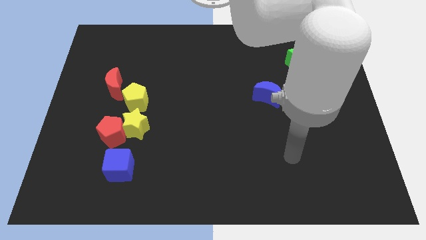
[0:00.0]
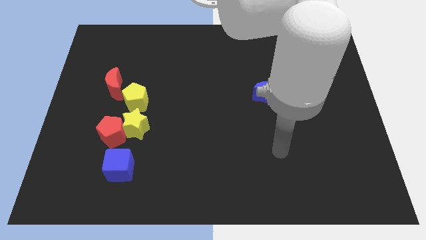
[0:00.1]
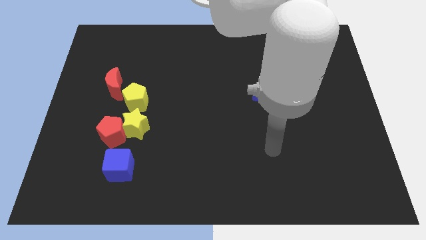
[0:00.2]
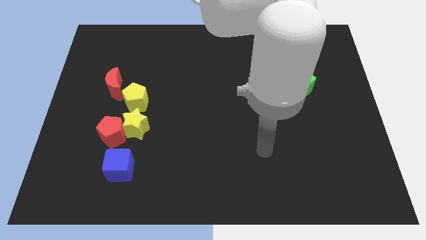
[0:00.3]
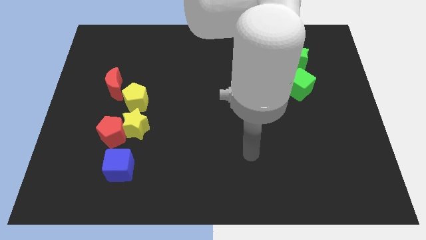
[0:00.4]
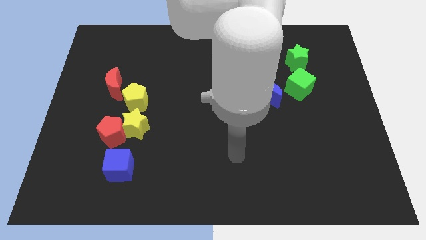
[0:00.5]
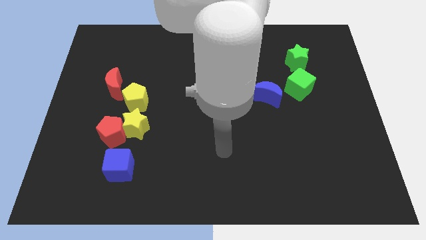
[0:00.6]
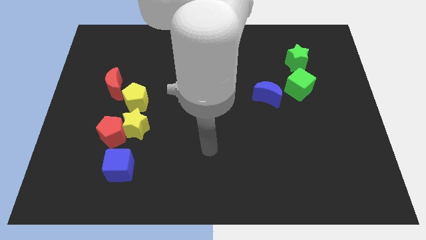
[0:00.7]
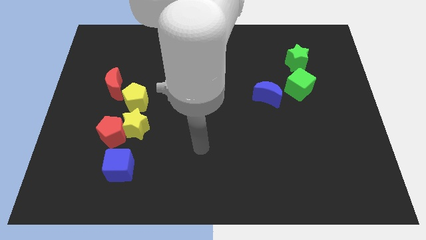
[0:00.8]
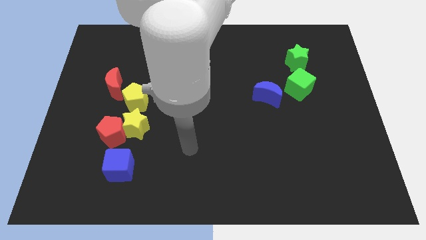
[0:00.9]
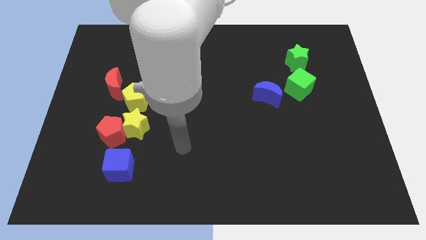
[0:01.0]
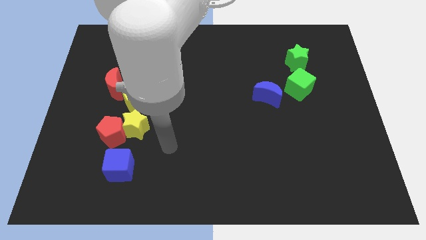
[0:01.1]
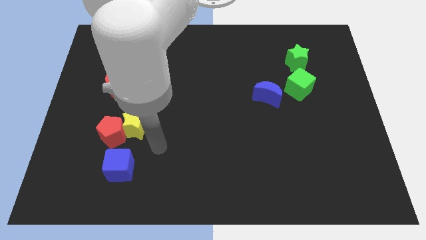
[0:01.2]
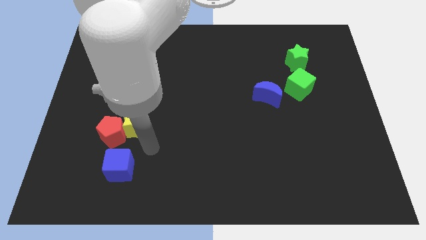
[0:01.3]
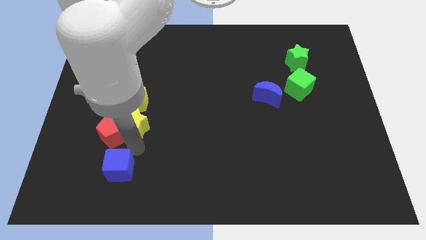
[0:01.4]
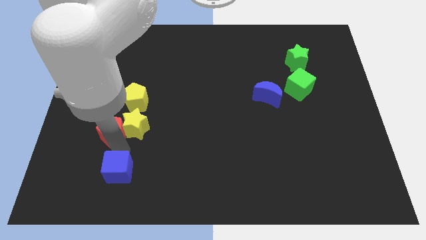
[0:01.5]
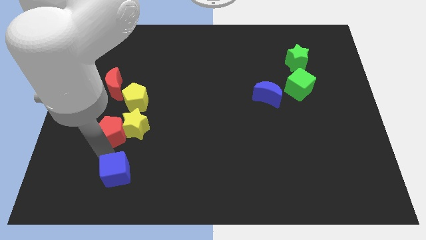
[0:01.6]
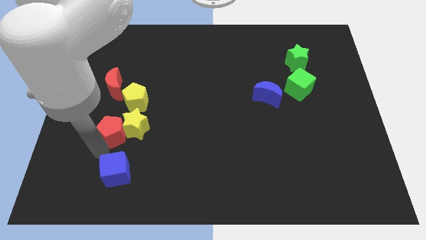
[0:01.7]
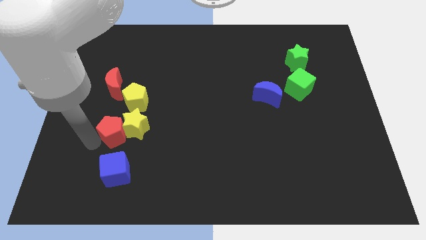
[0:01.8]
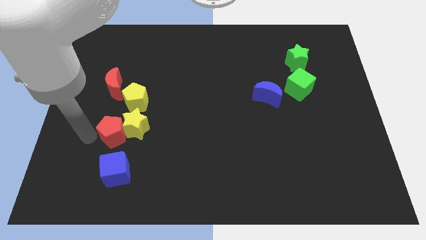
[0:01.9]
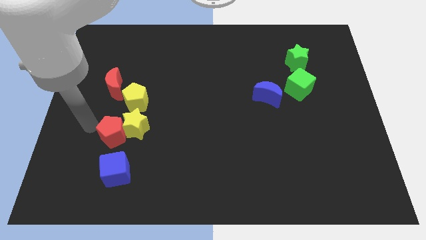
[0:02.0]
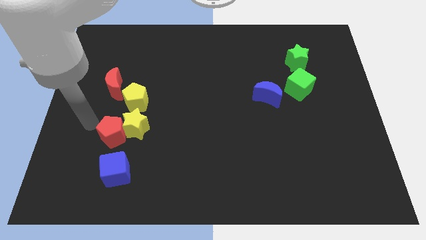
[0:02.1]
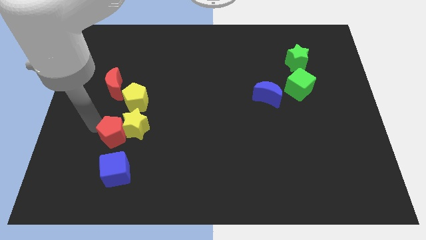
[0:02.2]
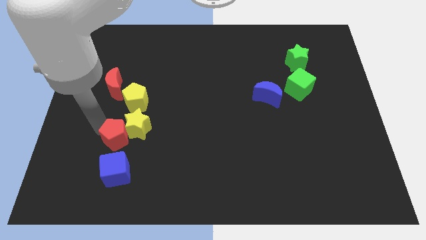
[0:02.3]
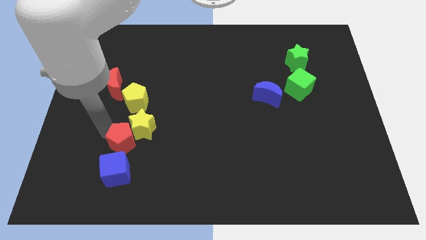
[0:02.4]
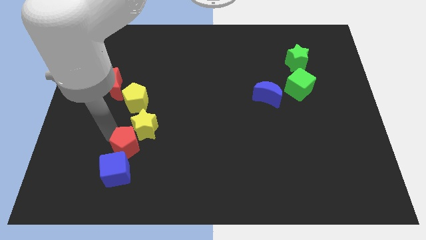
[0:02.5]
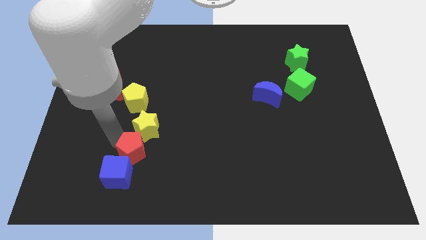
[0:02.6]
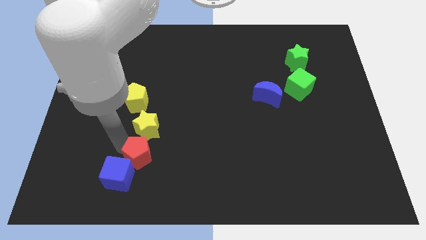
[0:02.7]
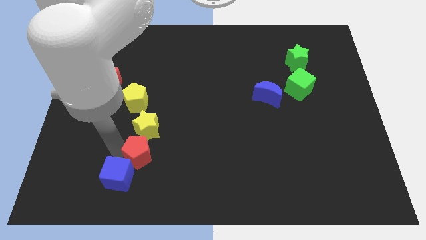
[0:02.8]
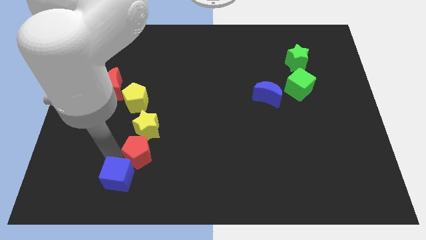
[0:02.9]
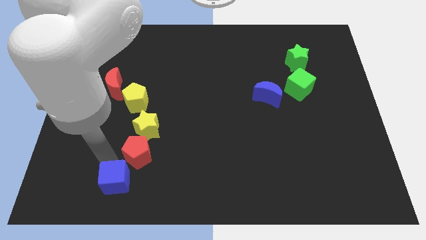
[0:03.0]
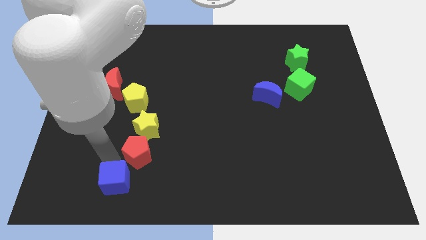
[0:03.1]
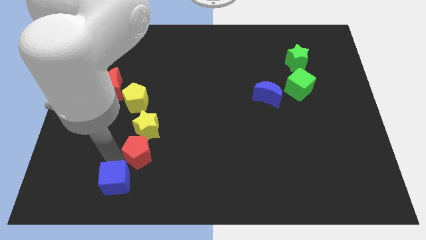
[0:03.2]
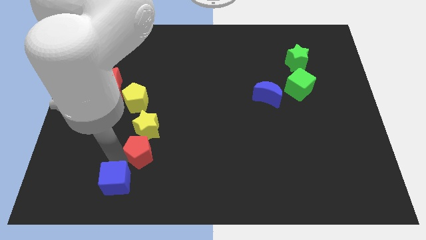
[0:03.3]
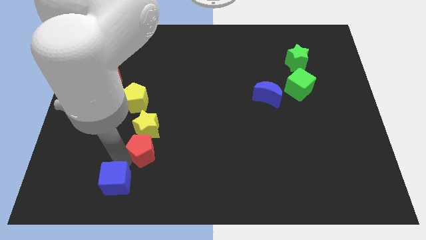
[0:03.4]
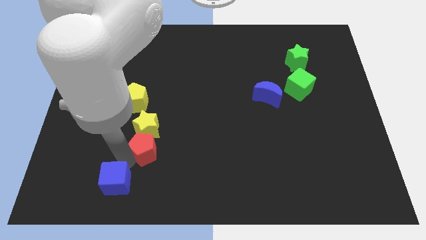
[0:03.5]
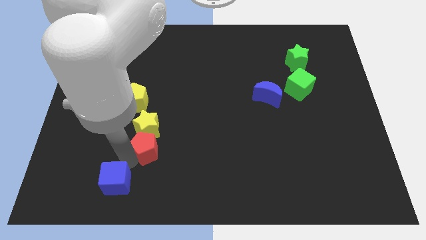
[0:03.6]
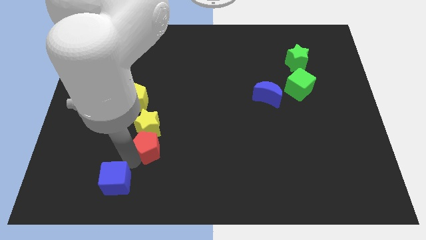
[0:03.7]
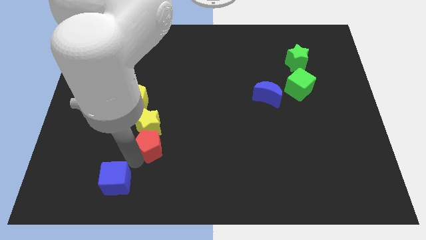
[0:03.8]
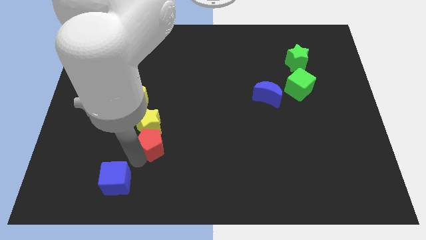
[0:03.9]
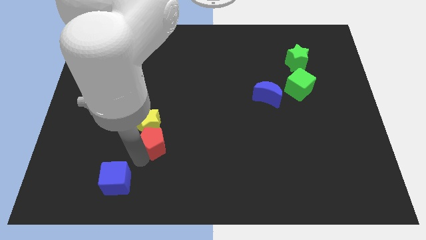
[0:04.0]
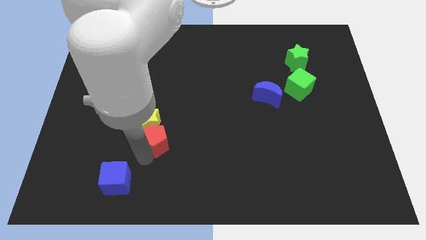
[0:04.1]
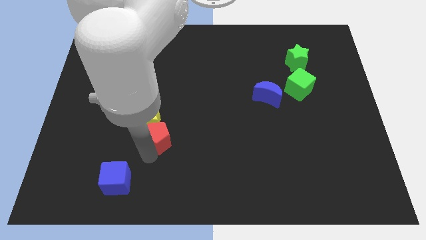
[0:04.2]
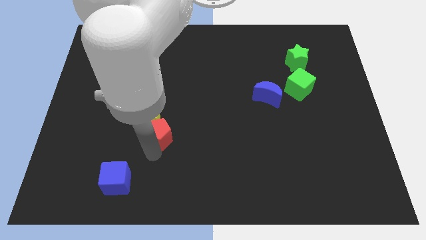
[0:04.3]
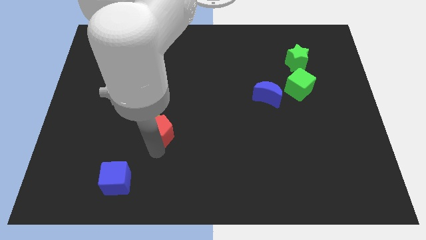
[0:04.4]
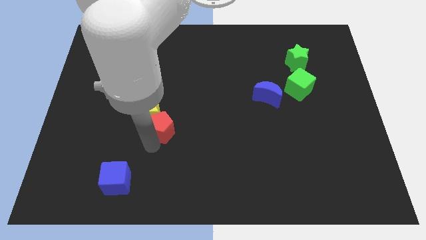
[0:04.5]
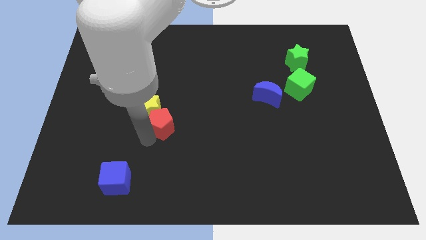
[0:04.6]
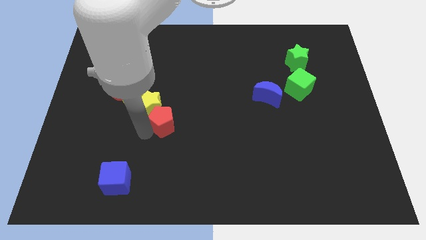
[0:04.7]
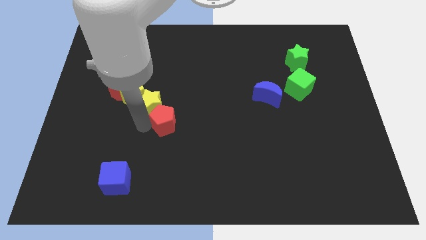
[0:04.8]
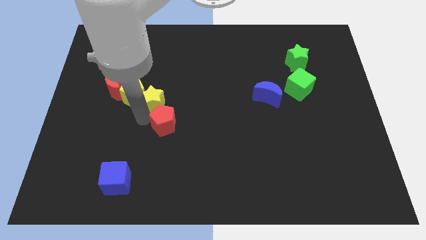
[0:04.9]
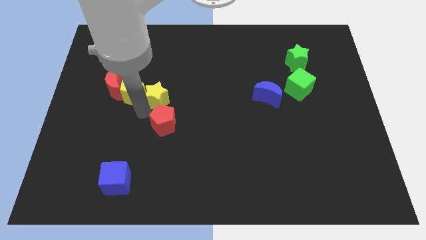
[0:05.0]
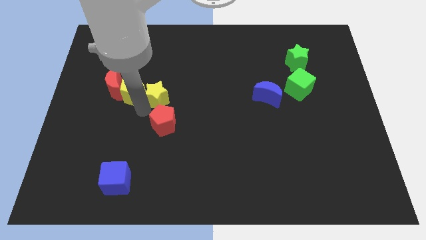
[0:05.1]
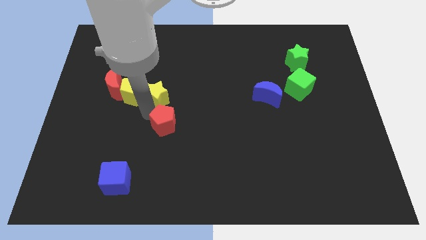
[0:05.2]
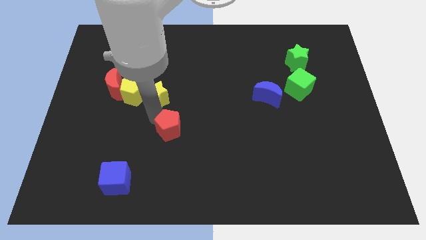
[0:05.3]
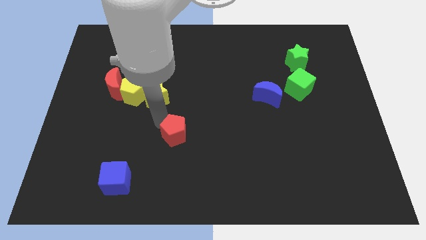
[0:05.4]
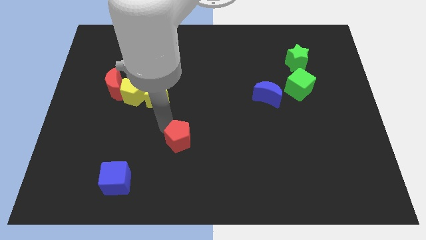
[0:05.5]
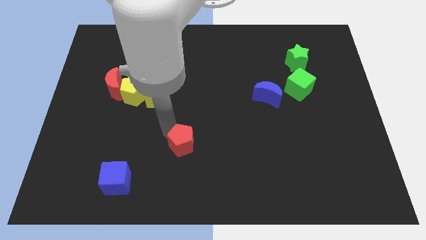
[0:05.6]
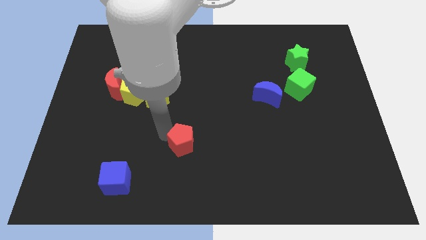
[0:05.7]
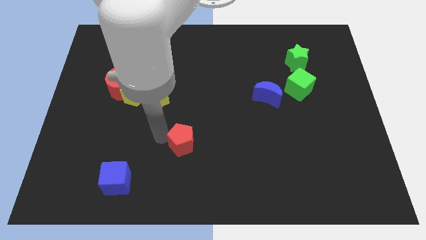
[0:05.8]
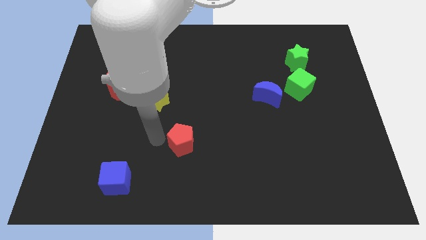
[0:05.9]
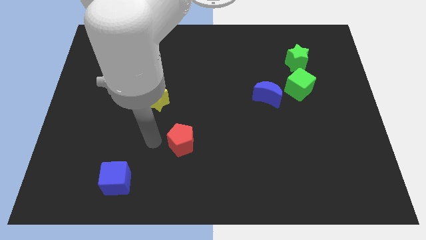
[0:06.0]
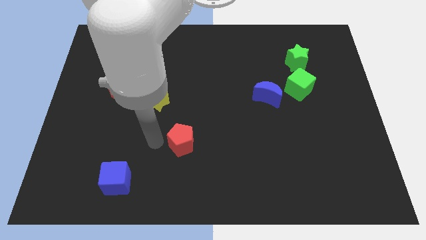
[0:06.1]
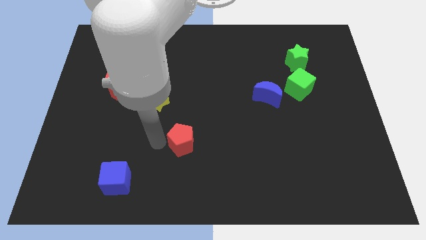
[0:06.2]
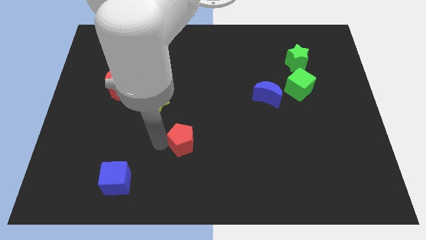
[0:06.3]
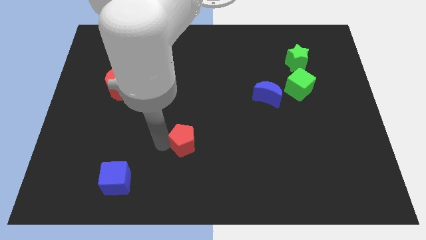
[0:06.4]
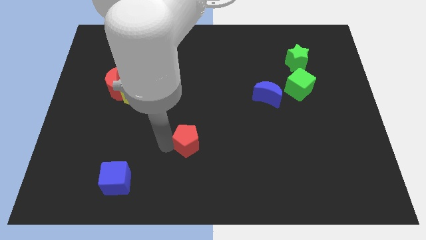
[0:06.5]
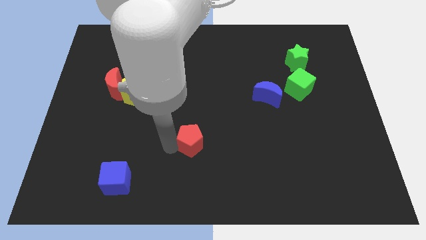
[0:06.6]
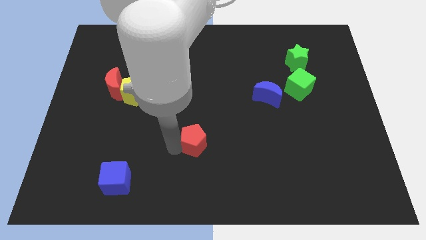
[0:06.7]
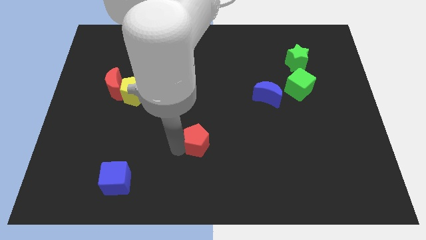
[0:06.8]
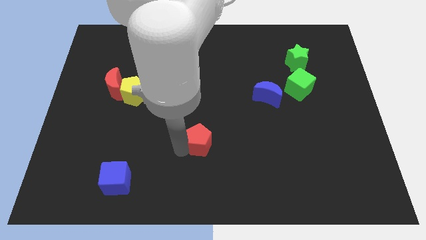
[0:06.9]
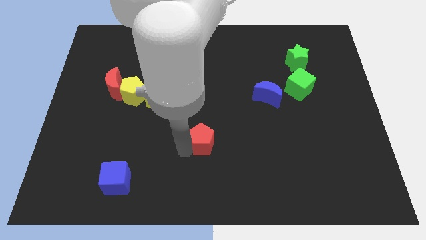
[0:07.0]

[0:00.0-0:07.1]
move the red pentagon right

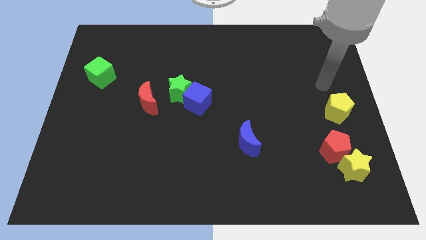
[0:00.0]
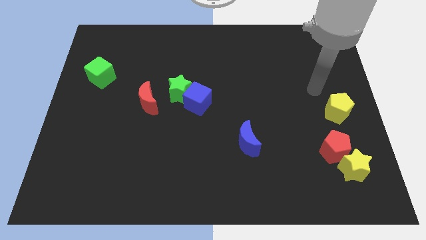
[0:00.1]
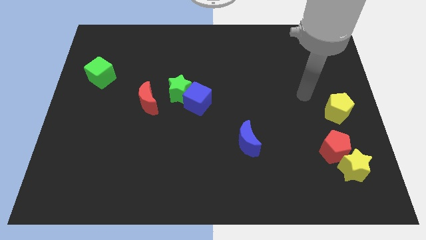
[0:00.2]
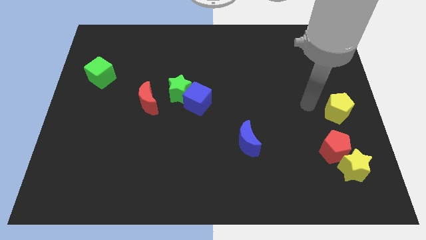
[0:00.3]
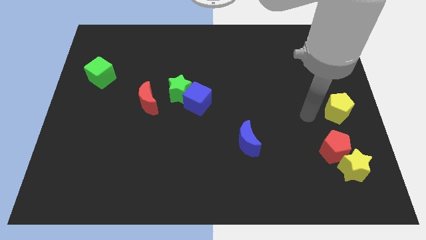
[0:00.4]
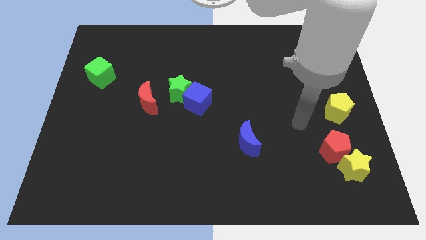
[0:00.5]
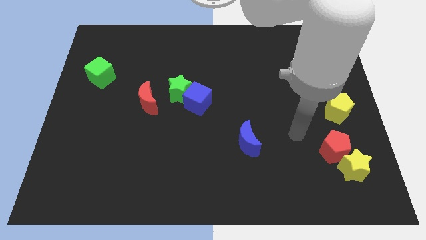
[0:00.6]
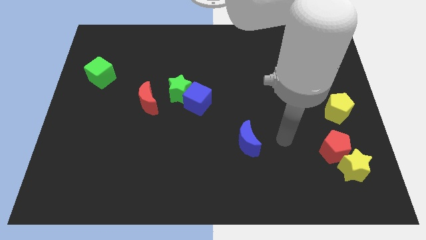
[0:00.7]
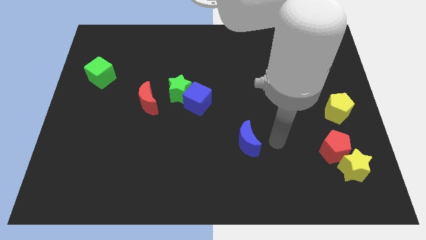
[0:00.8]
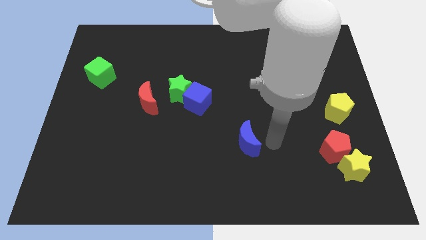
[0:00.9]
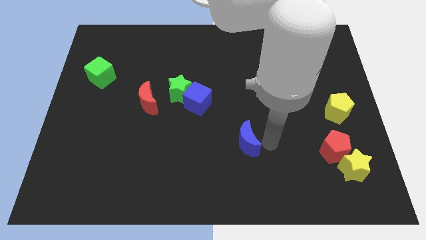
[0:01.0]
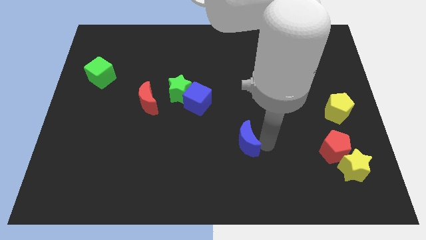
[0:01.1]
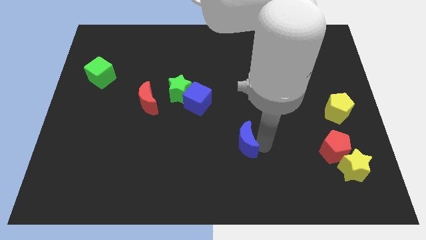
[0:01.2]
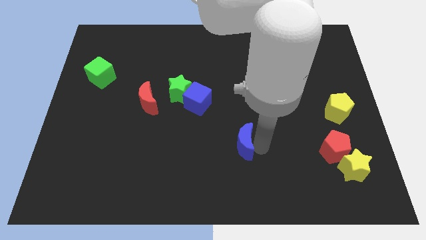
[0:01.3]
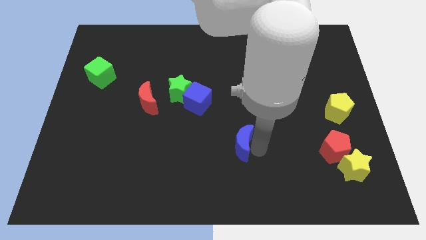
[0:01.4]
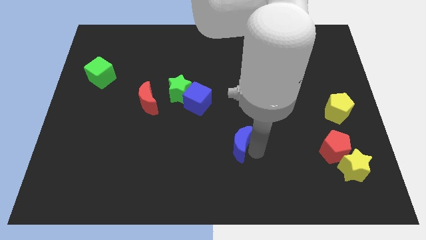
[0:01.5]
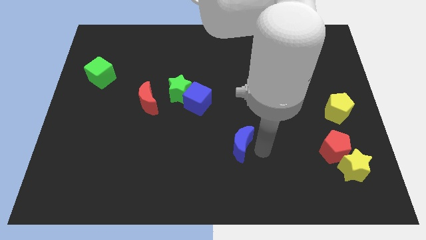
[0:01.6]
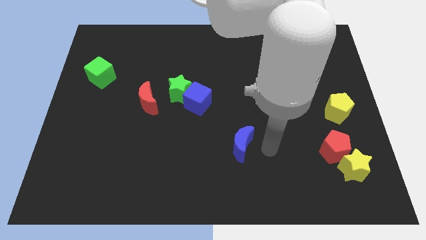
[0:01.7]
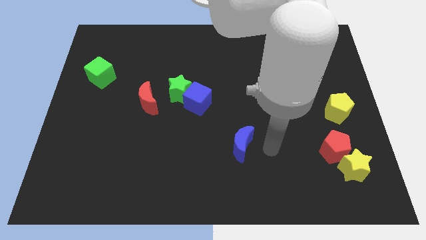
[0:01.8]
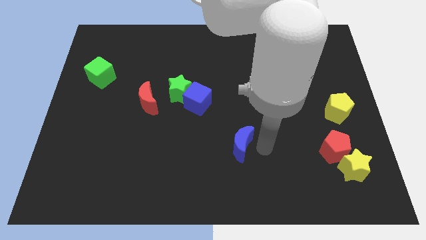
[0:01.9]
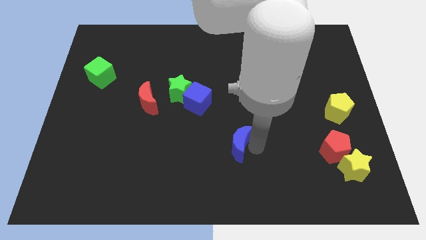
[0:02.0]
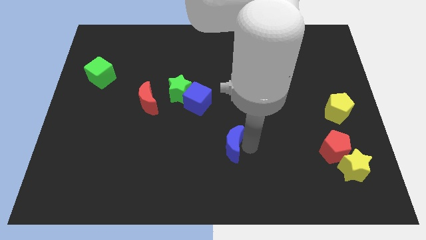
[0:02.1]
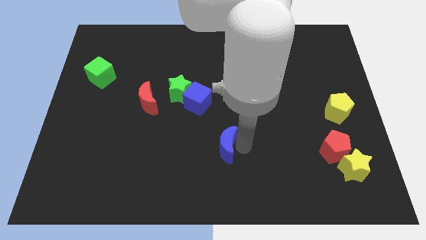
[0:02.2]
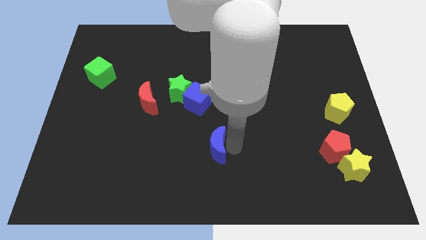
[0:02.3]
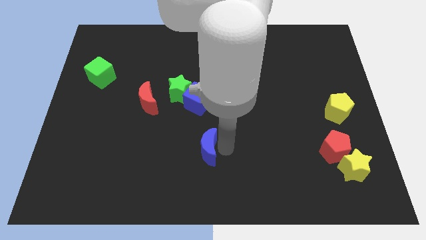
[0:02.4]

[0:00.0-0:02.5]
slightly move the blue moon left
